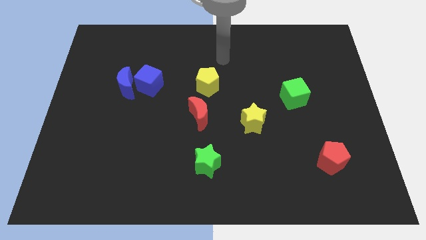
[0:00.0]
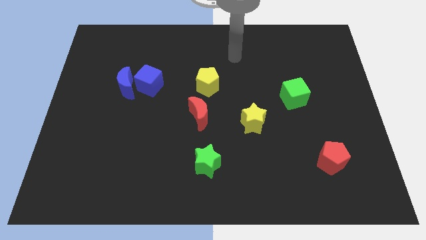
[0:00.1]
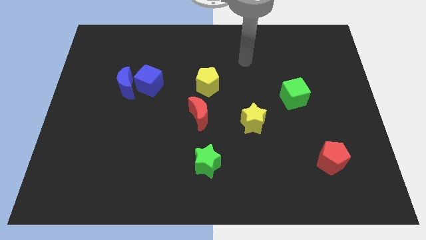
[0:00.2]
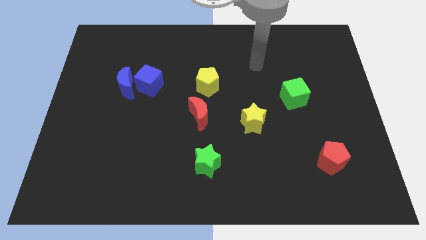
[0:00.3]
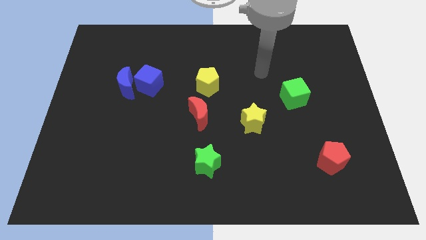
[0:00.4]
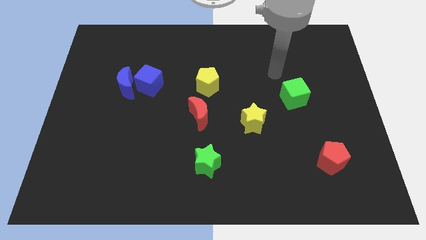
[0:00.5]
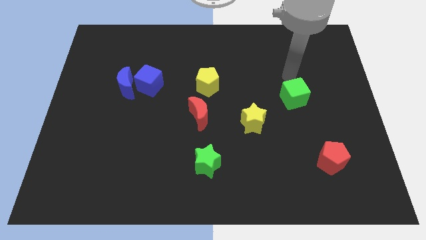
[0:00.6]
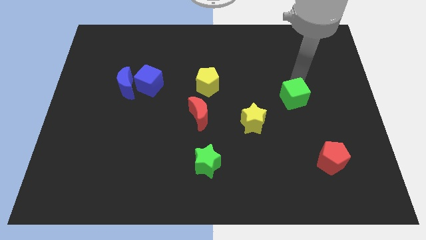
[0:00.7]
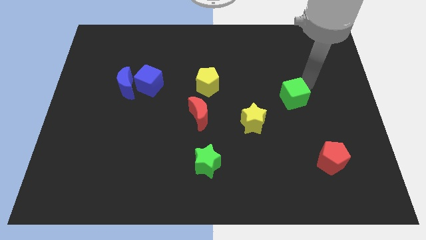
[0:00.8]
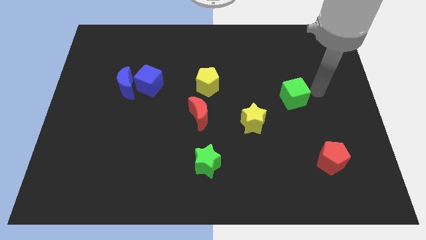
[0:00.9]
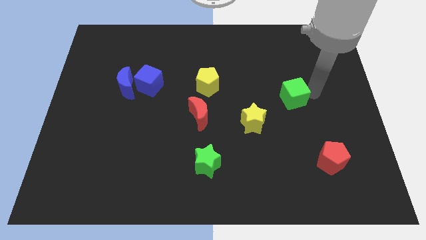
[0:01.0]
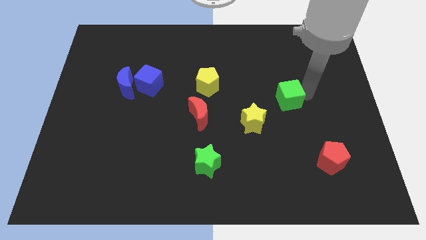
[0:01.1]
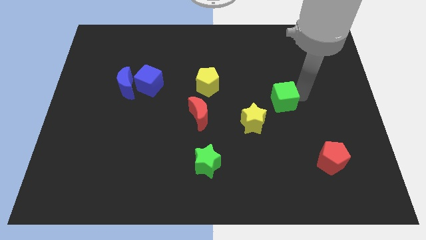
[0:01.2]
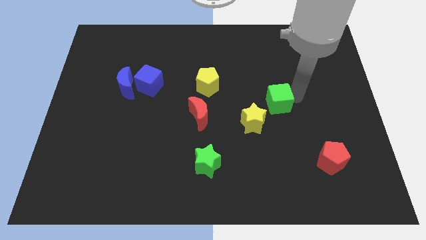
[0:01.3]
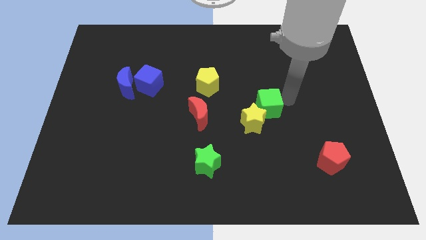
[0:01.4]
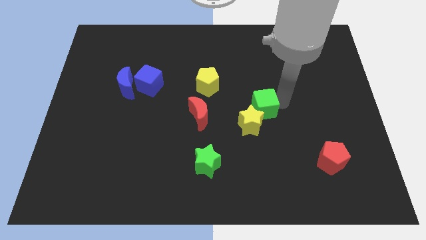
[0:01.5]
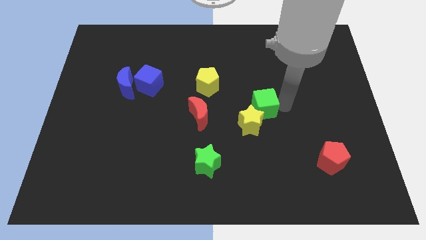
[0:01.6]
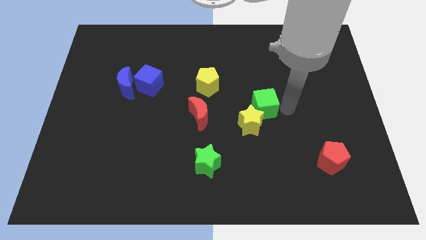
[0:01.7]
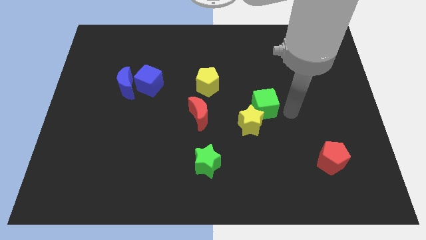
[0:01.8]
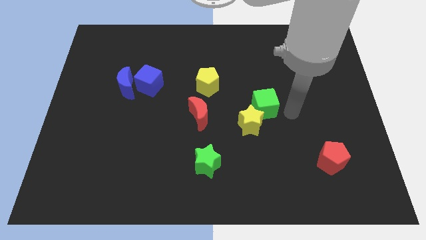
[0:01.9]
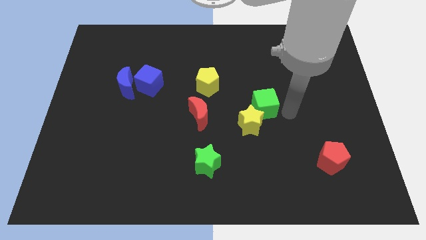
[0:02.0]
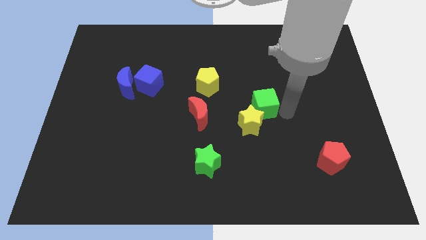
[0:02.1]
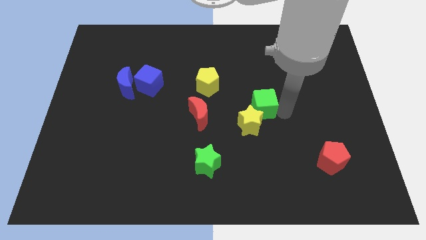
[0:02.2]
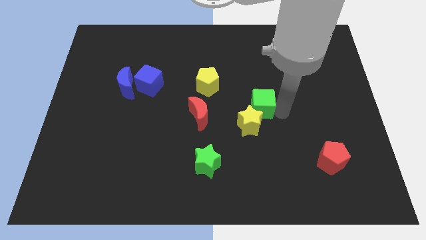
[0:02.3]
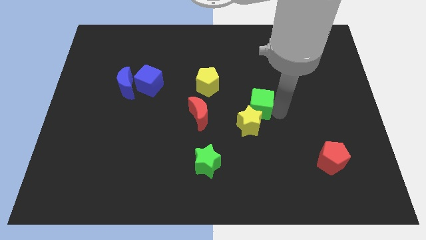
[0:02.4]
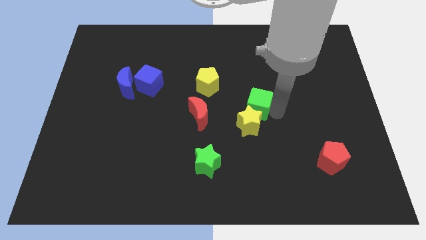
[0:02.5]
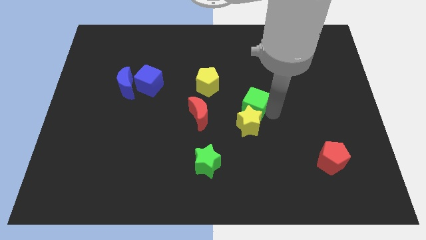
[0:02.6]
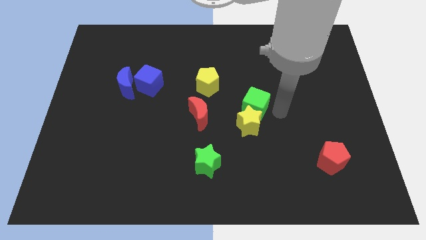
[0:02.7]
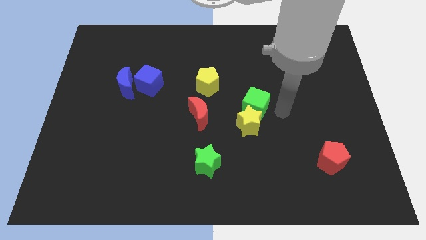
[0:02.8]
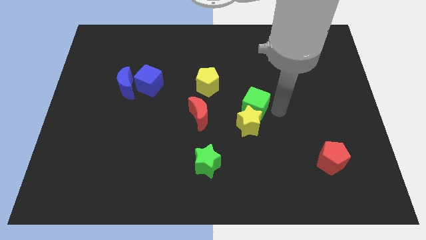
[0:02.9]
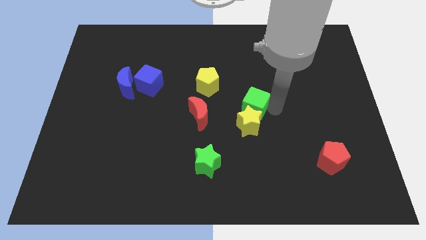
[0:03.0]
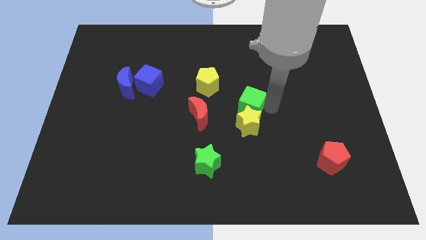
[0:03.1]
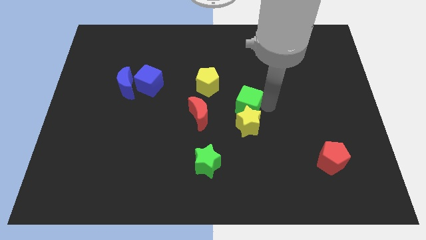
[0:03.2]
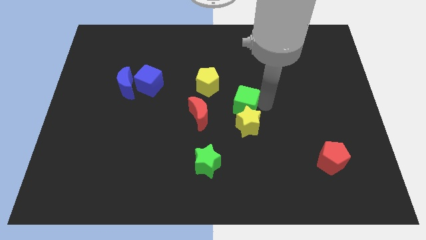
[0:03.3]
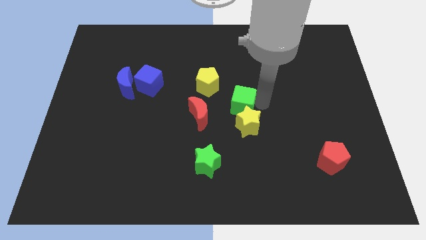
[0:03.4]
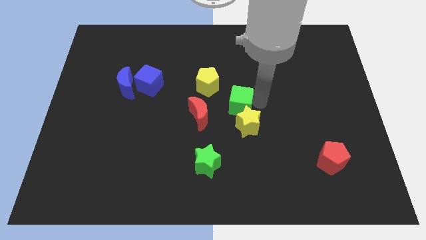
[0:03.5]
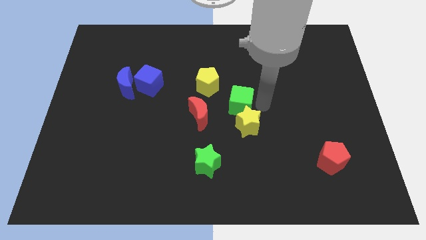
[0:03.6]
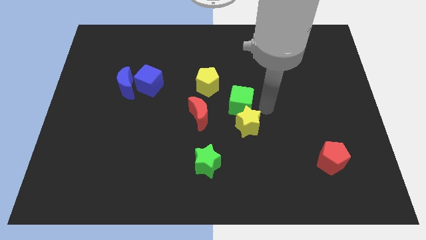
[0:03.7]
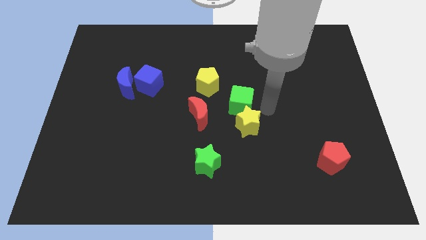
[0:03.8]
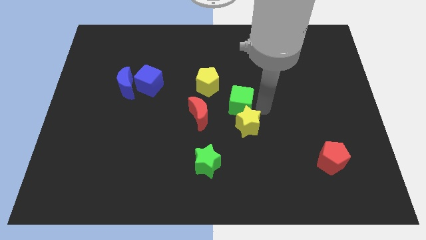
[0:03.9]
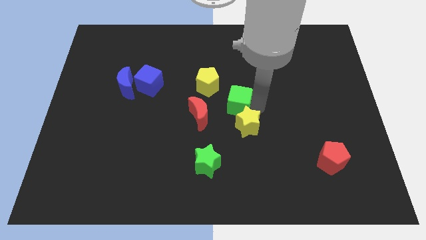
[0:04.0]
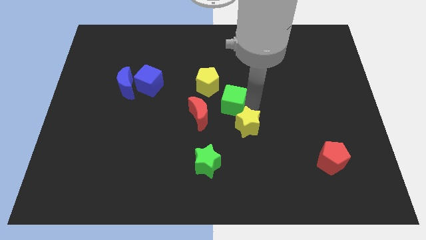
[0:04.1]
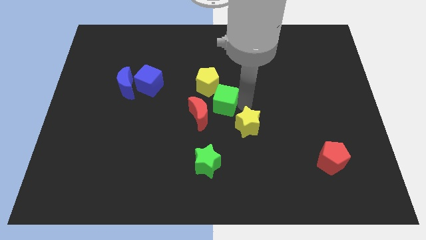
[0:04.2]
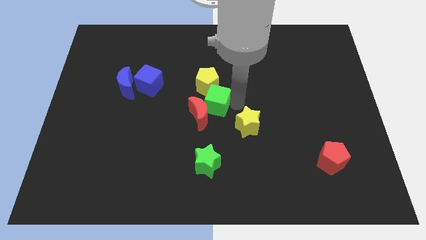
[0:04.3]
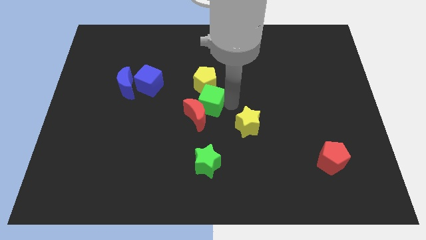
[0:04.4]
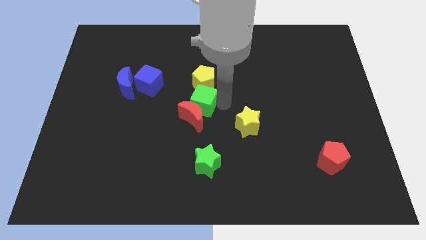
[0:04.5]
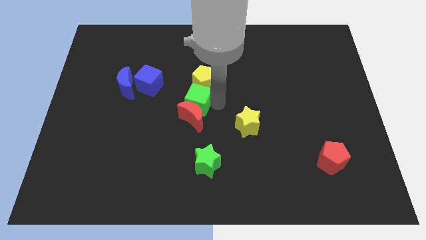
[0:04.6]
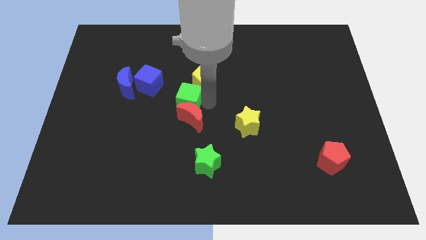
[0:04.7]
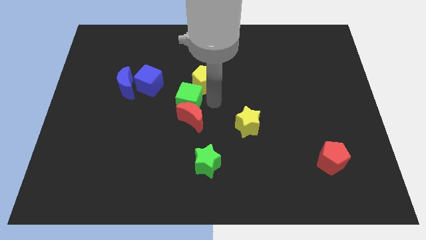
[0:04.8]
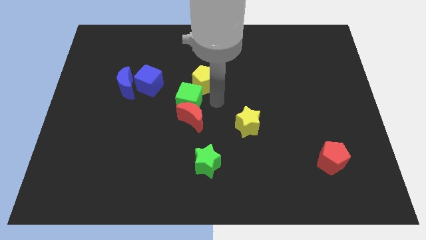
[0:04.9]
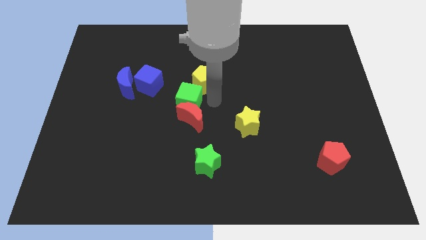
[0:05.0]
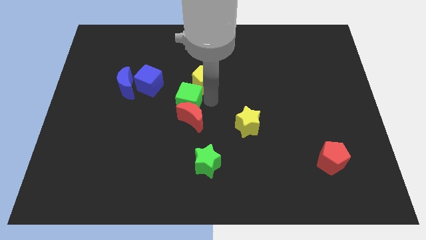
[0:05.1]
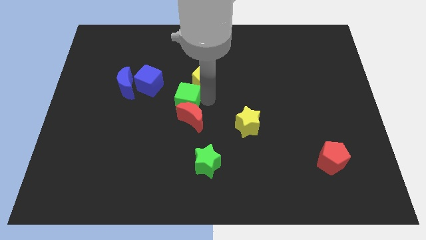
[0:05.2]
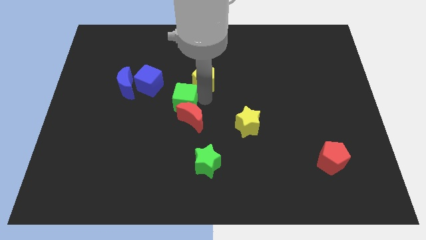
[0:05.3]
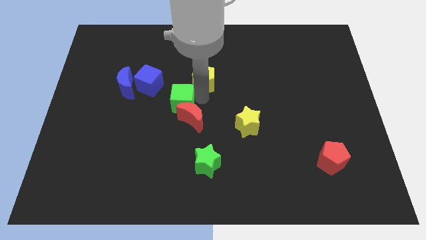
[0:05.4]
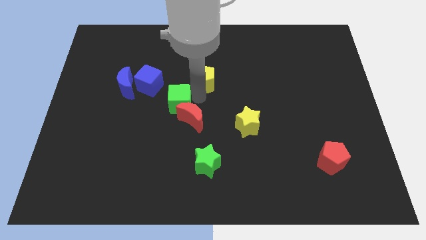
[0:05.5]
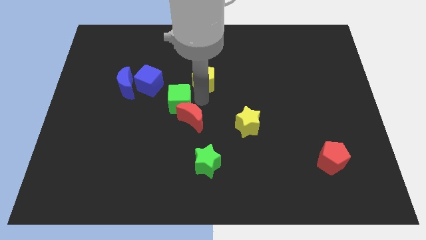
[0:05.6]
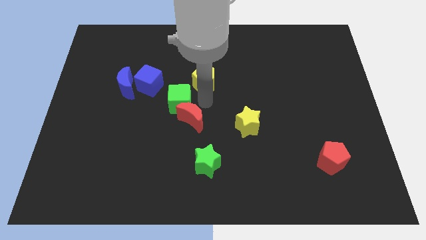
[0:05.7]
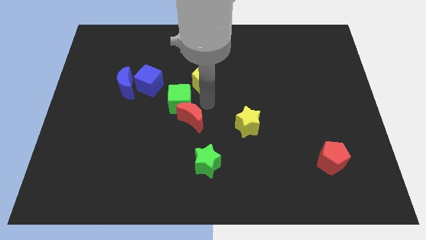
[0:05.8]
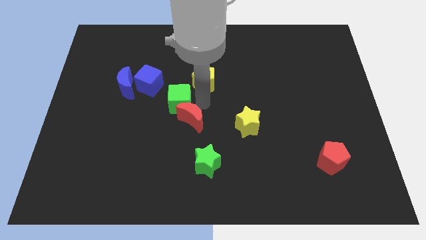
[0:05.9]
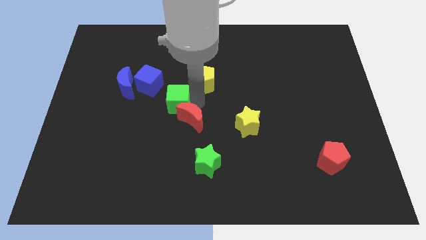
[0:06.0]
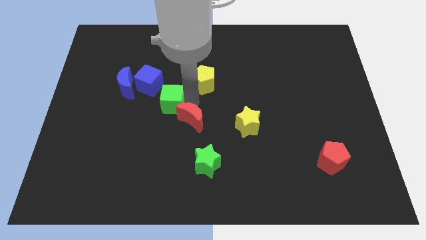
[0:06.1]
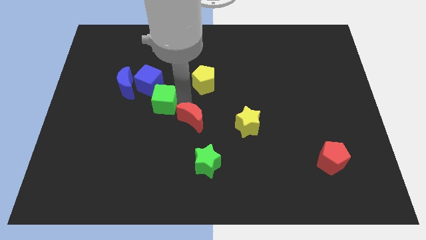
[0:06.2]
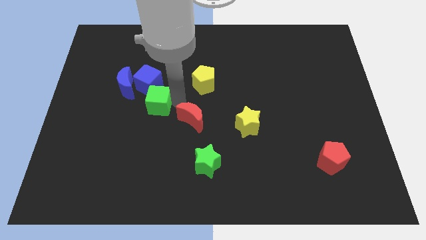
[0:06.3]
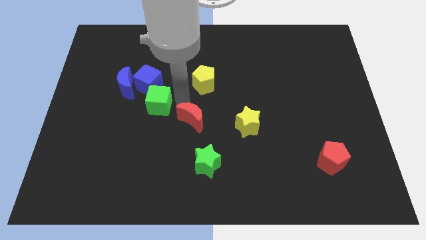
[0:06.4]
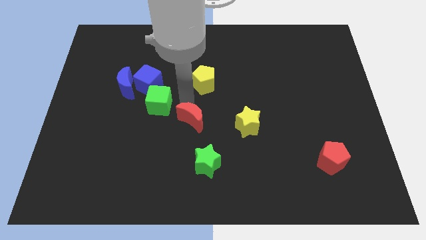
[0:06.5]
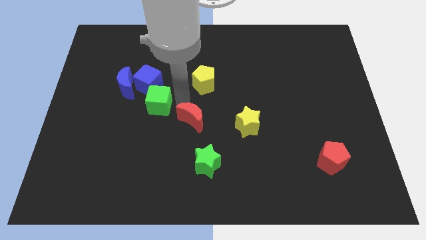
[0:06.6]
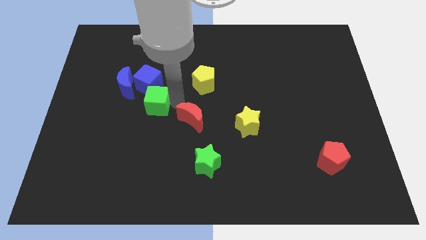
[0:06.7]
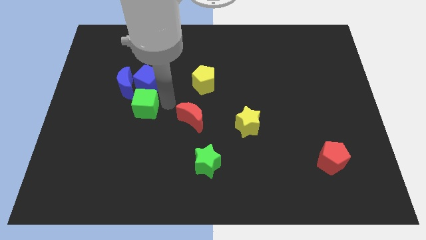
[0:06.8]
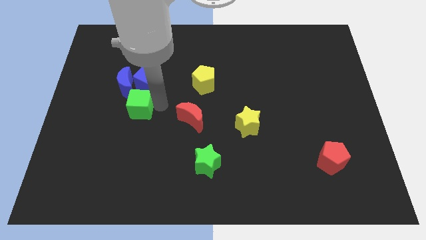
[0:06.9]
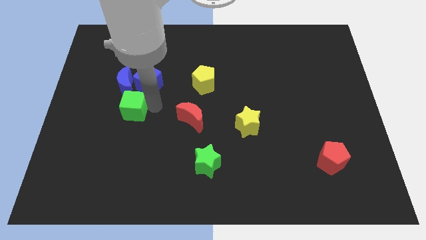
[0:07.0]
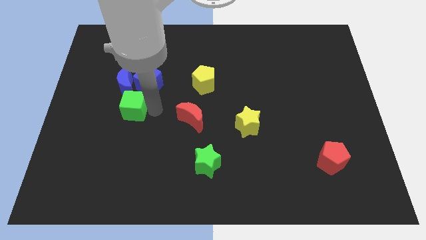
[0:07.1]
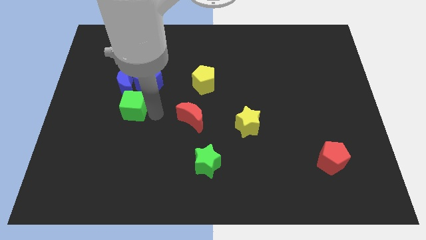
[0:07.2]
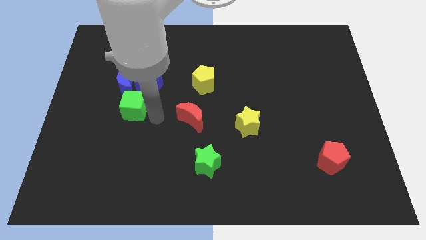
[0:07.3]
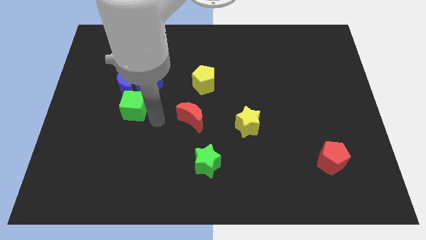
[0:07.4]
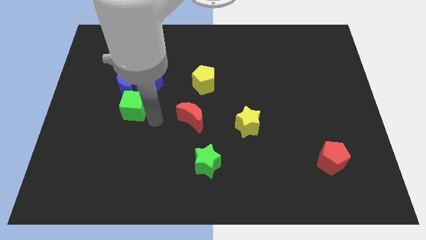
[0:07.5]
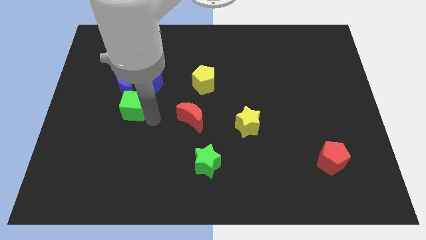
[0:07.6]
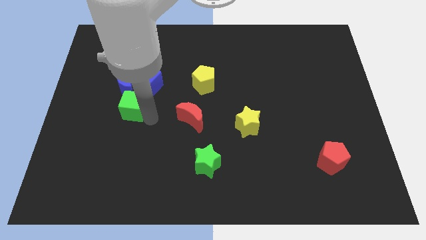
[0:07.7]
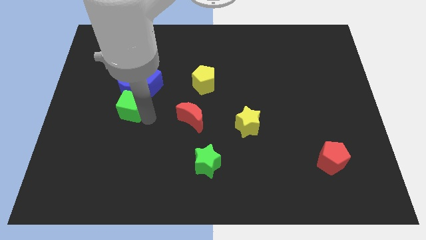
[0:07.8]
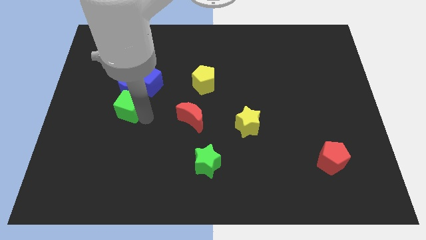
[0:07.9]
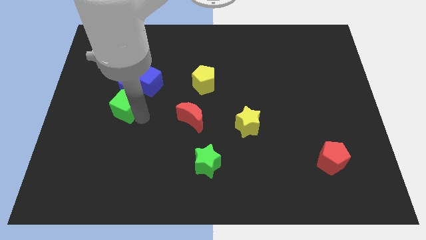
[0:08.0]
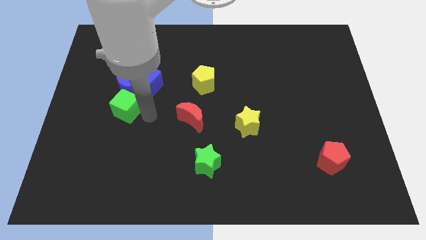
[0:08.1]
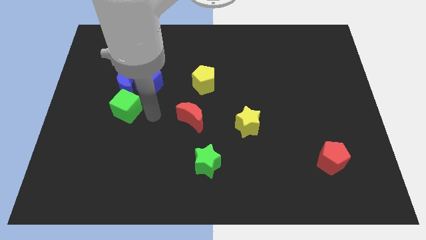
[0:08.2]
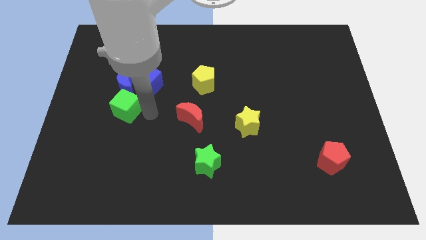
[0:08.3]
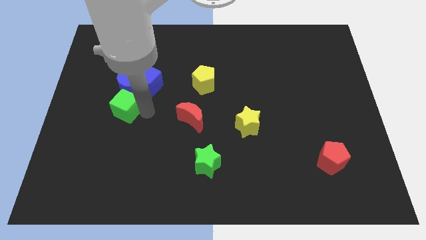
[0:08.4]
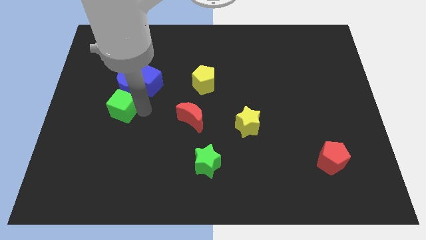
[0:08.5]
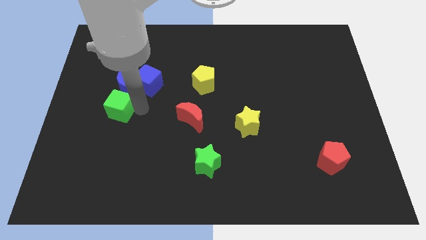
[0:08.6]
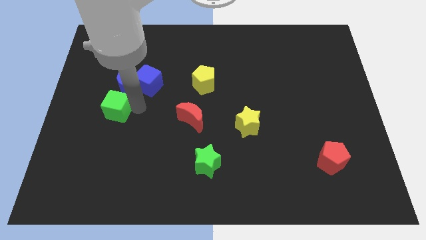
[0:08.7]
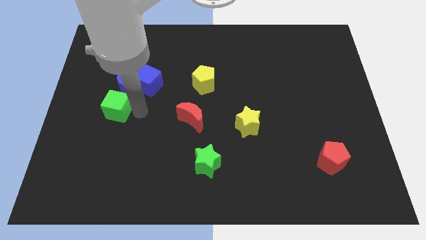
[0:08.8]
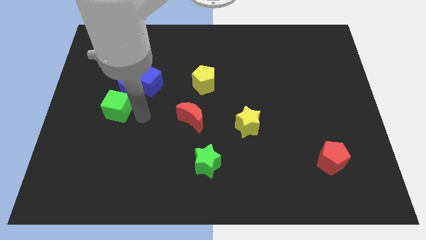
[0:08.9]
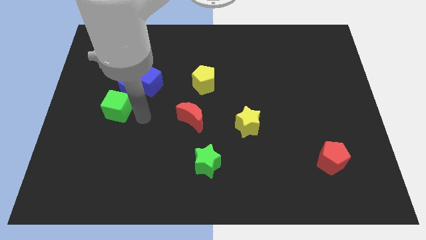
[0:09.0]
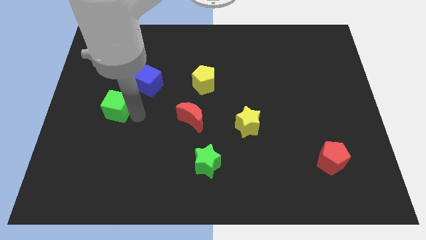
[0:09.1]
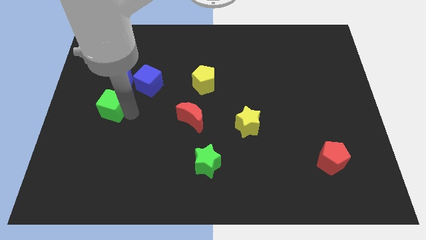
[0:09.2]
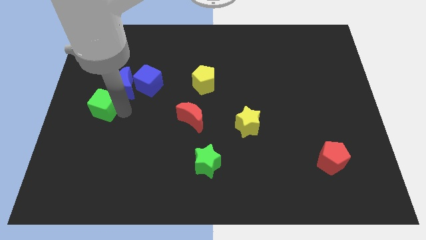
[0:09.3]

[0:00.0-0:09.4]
slide the green cube to the center left
